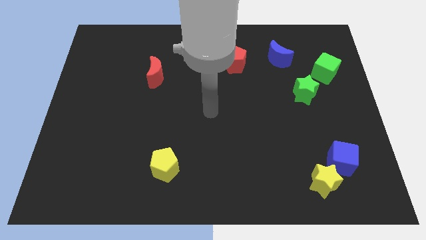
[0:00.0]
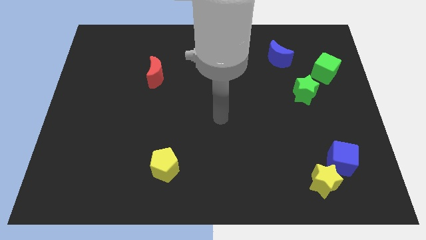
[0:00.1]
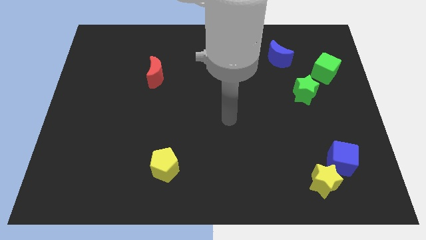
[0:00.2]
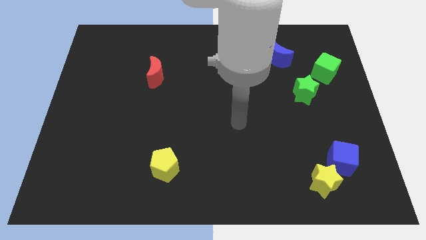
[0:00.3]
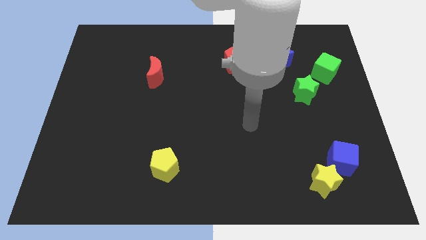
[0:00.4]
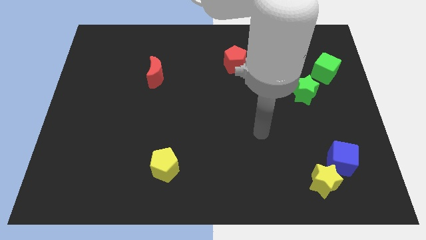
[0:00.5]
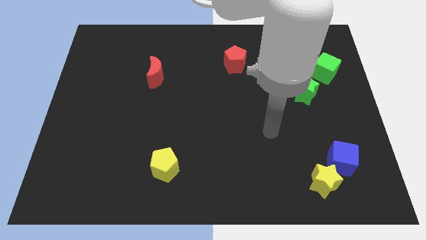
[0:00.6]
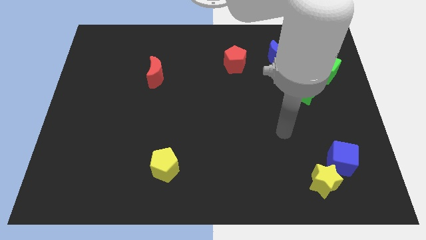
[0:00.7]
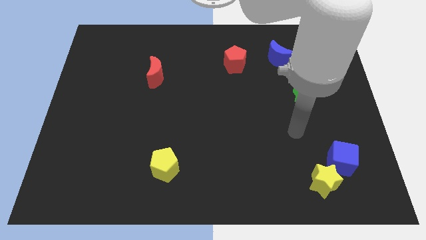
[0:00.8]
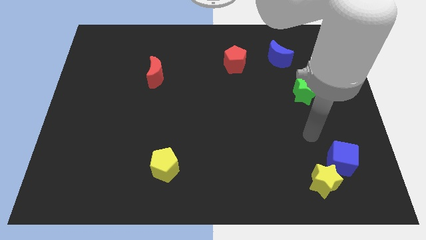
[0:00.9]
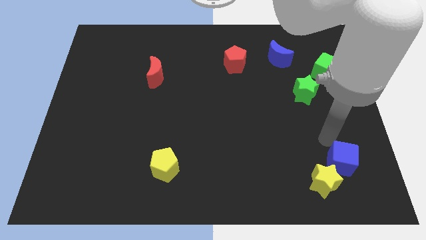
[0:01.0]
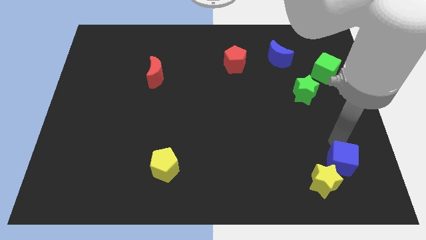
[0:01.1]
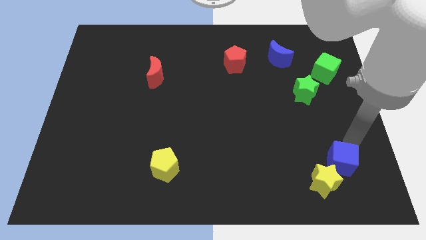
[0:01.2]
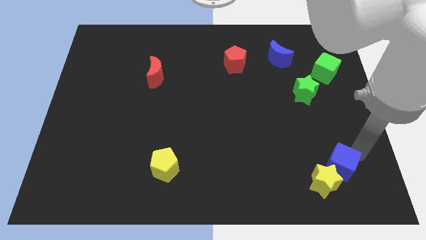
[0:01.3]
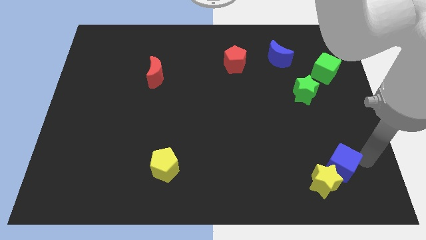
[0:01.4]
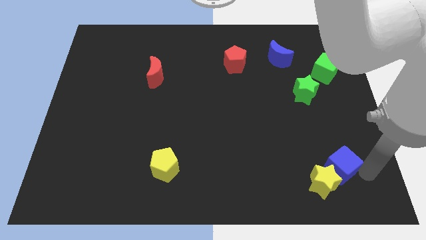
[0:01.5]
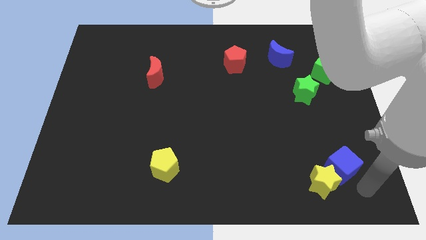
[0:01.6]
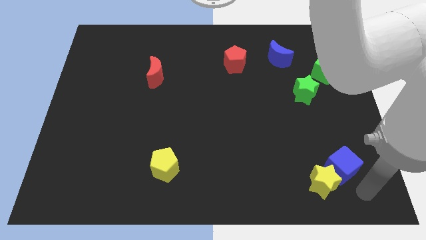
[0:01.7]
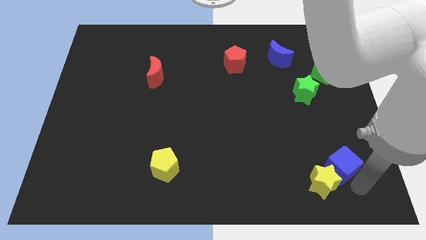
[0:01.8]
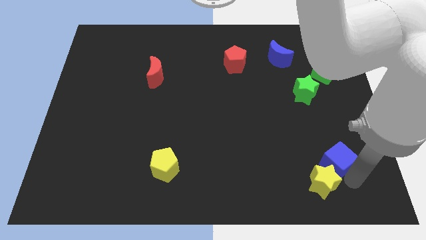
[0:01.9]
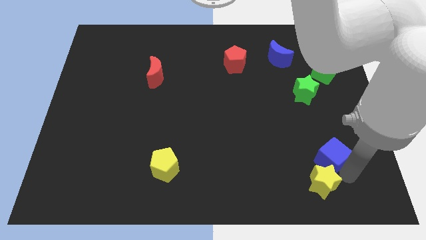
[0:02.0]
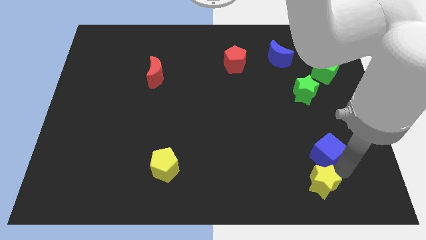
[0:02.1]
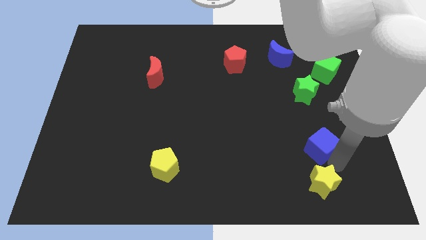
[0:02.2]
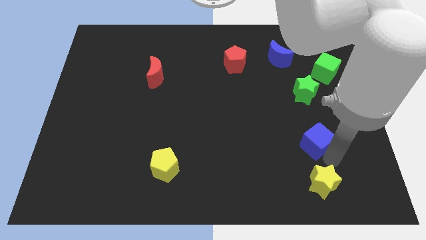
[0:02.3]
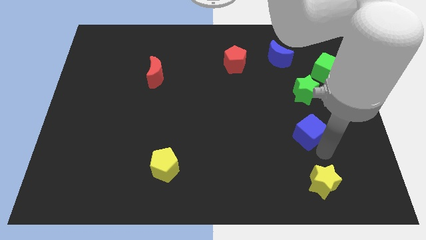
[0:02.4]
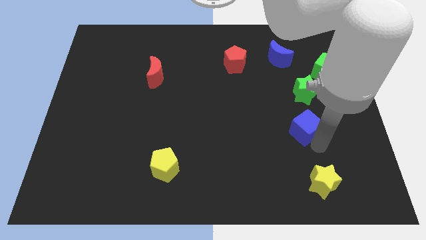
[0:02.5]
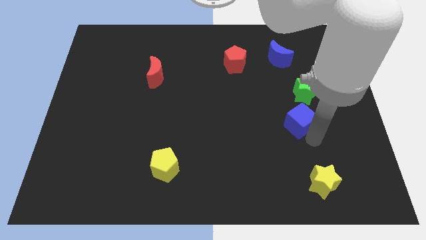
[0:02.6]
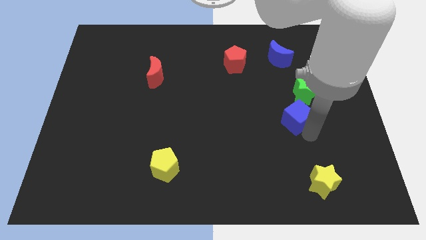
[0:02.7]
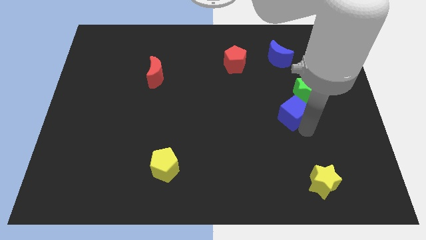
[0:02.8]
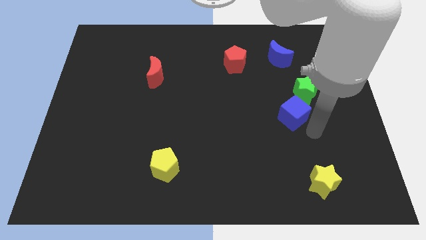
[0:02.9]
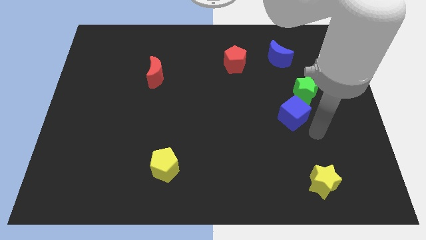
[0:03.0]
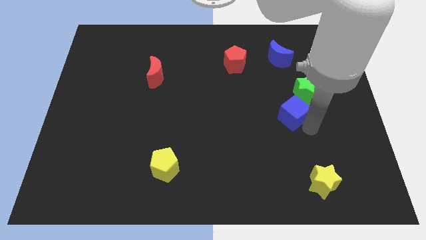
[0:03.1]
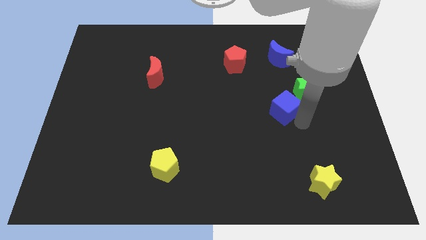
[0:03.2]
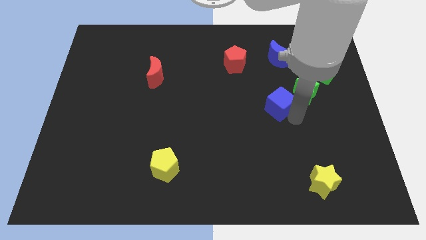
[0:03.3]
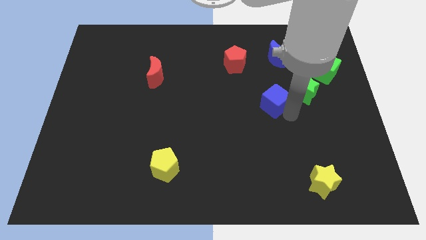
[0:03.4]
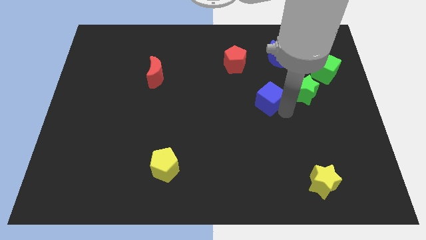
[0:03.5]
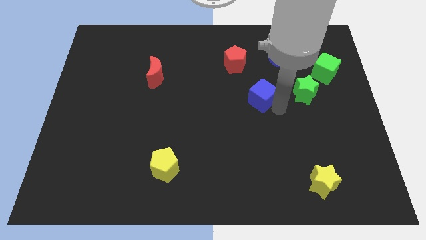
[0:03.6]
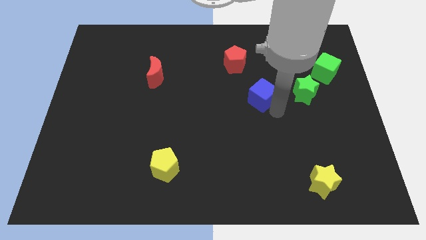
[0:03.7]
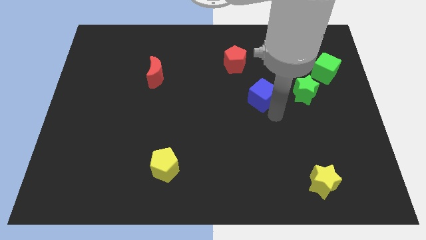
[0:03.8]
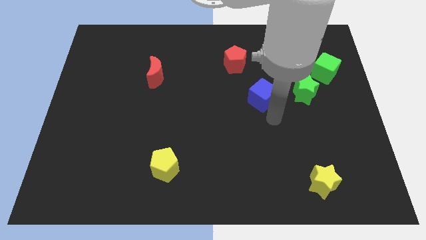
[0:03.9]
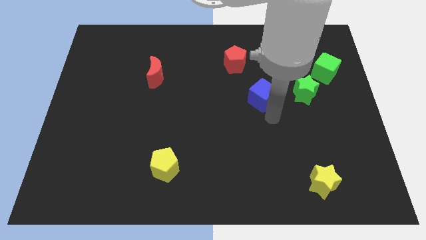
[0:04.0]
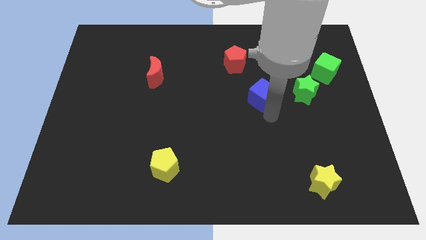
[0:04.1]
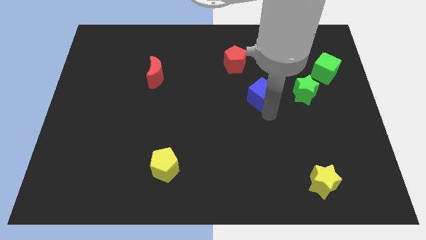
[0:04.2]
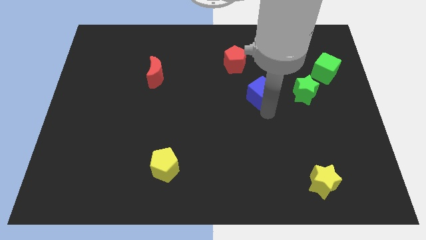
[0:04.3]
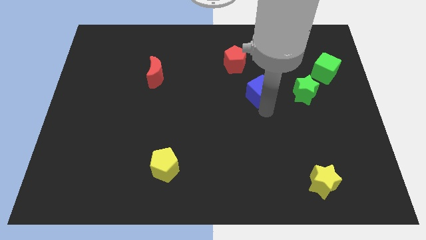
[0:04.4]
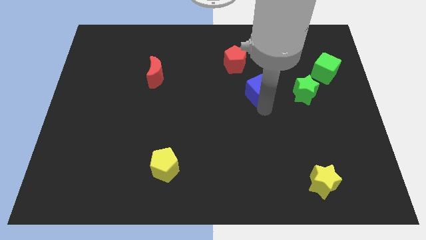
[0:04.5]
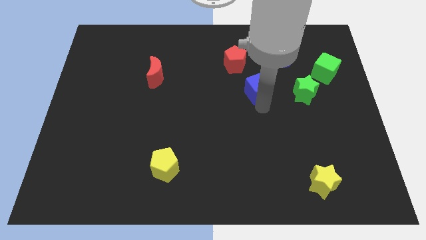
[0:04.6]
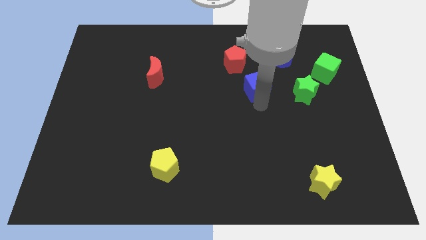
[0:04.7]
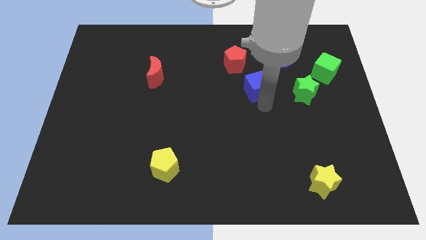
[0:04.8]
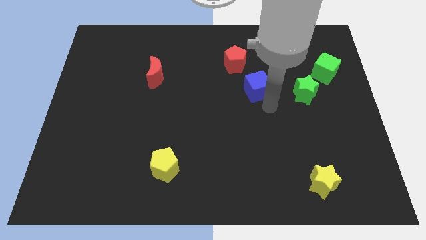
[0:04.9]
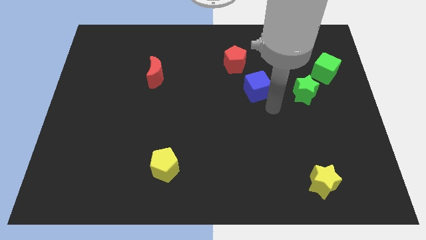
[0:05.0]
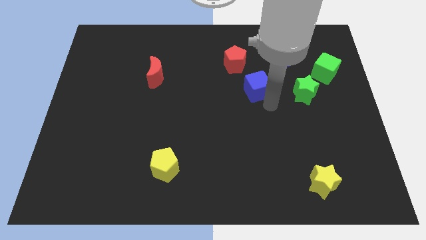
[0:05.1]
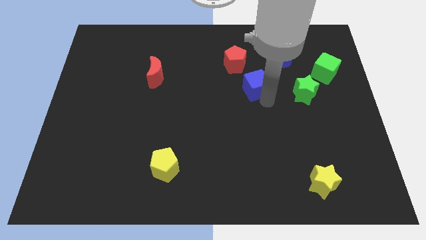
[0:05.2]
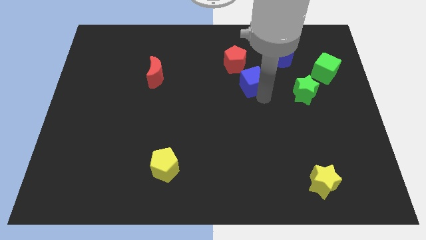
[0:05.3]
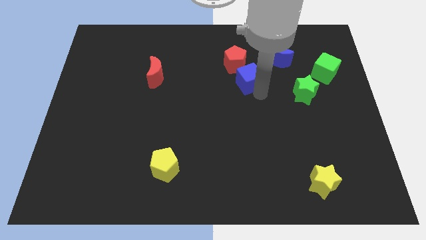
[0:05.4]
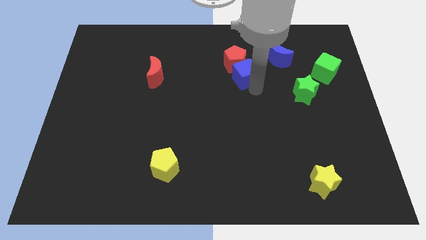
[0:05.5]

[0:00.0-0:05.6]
put the blue cube close to the red pentagon

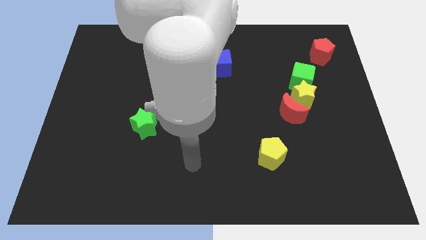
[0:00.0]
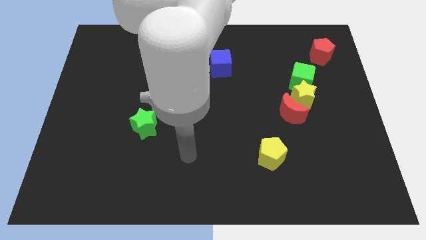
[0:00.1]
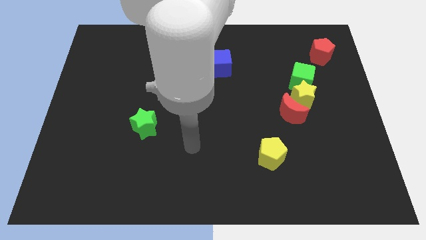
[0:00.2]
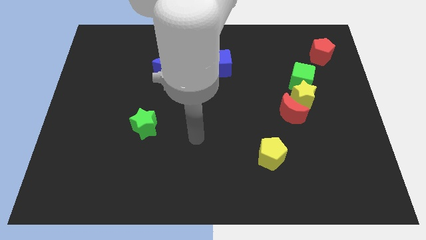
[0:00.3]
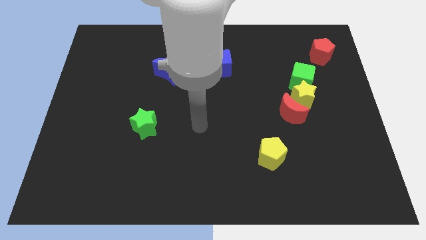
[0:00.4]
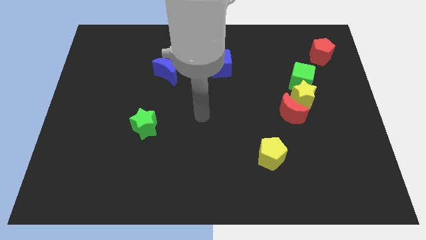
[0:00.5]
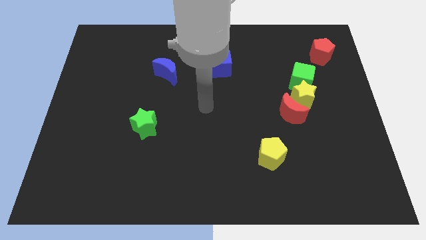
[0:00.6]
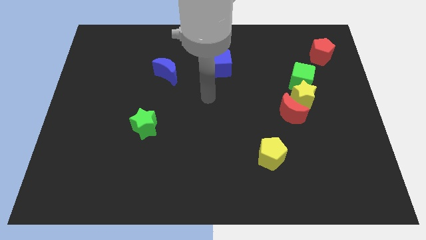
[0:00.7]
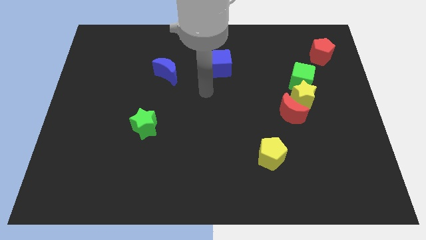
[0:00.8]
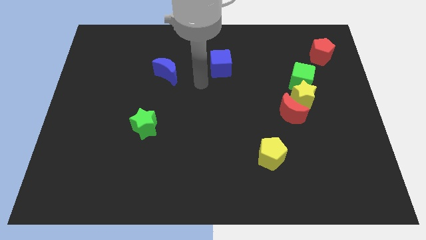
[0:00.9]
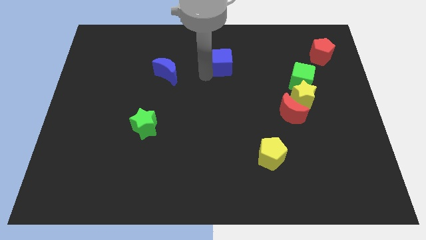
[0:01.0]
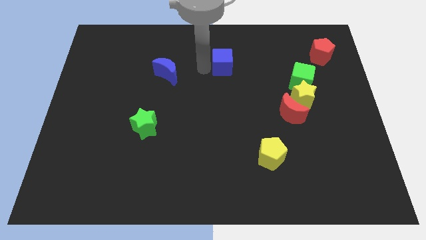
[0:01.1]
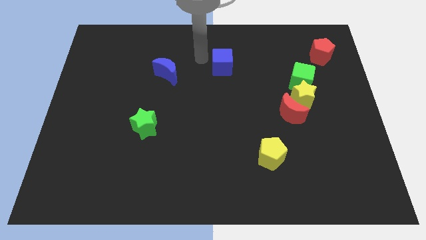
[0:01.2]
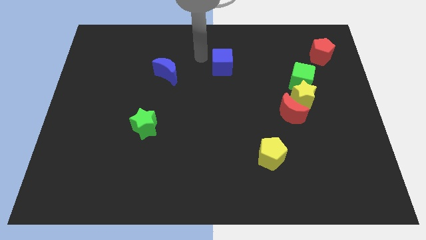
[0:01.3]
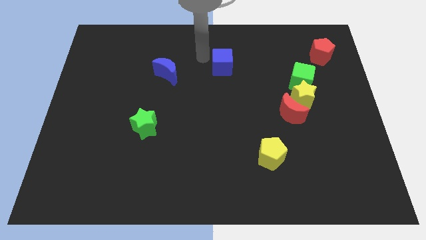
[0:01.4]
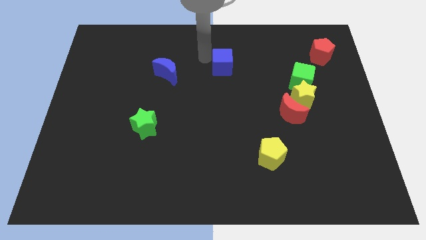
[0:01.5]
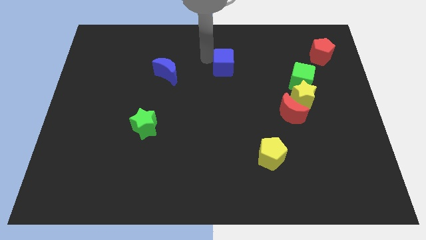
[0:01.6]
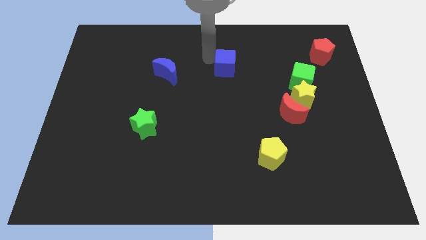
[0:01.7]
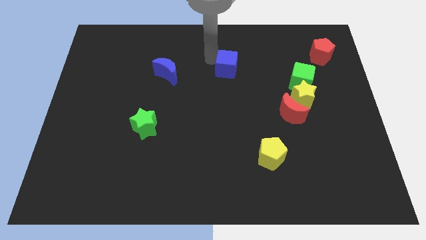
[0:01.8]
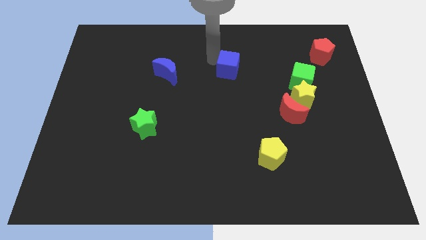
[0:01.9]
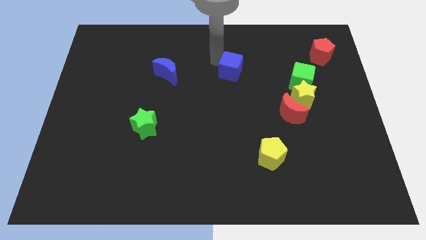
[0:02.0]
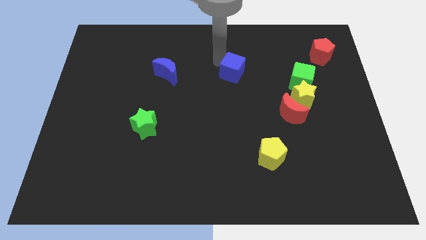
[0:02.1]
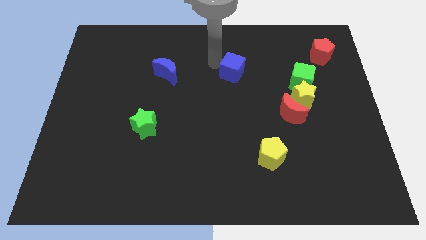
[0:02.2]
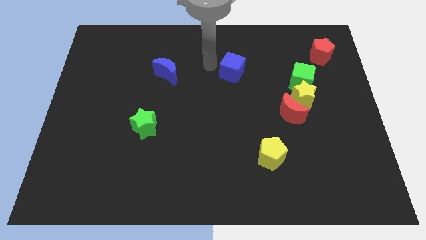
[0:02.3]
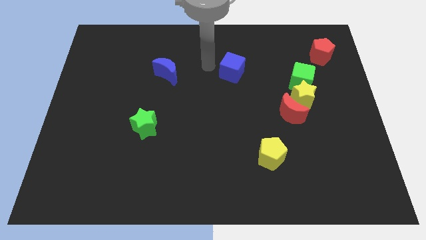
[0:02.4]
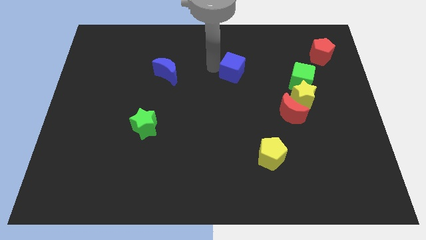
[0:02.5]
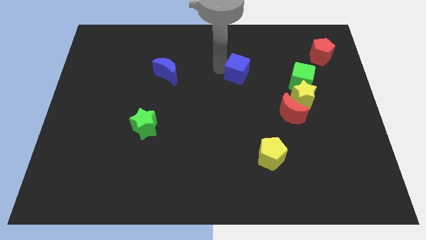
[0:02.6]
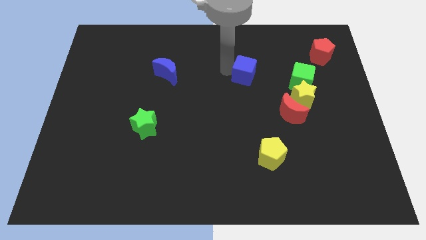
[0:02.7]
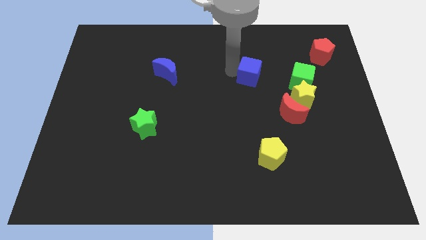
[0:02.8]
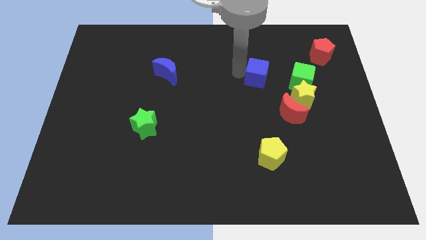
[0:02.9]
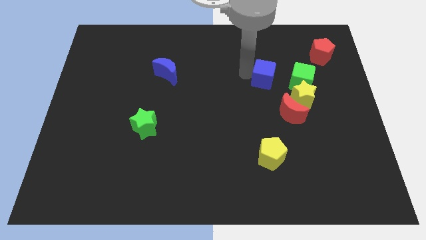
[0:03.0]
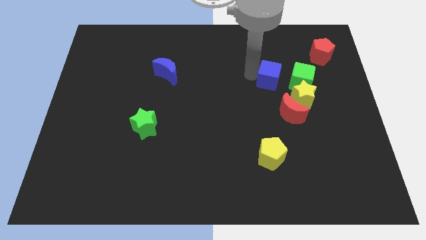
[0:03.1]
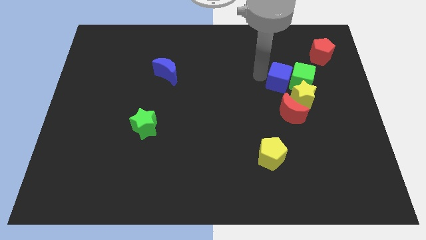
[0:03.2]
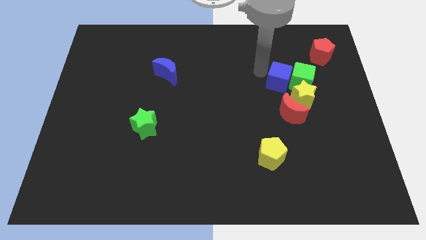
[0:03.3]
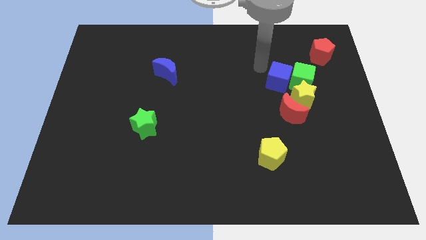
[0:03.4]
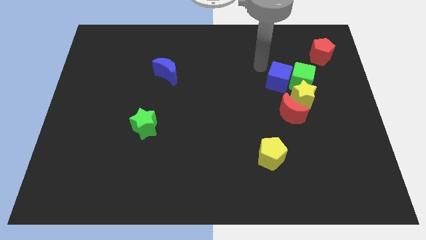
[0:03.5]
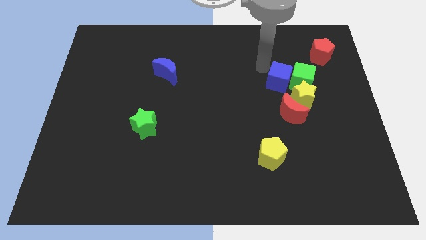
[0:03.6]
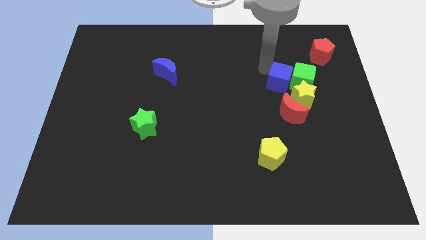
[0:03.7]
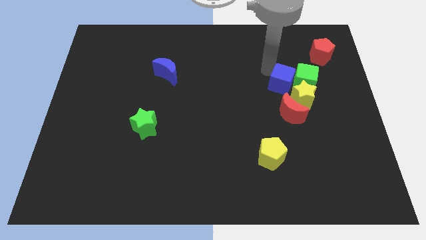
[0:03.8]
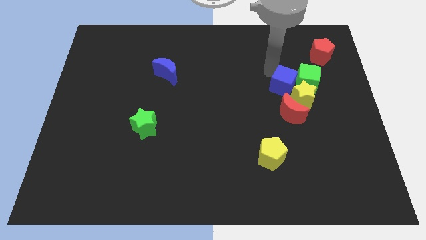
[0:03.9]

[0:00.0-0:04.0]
move the blue cube next to the yellow star
